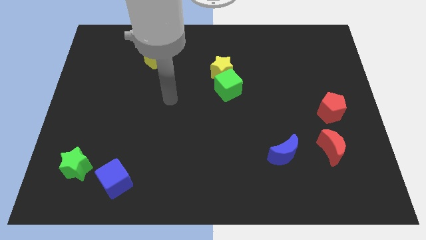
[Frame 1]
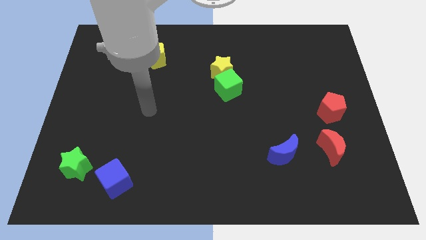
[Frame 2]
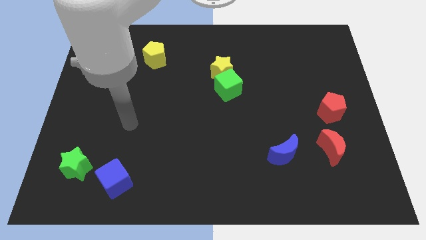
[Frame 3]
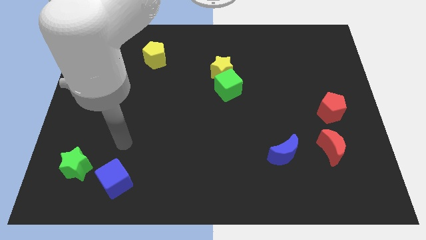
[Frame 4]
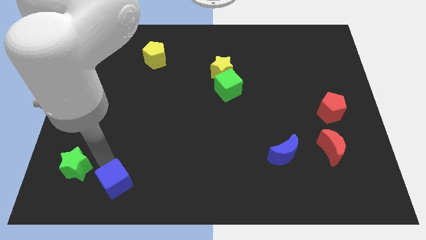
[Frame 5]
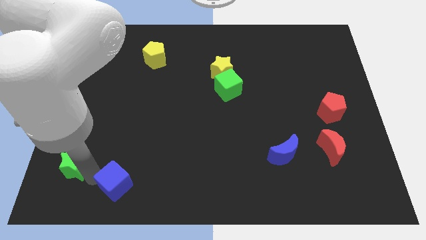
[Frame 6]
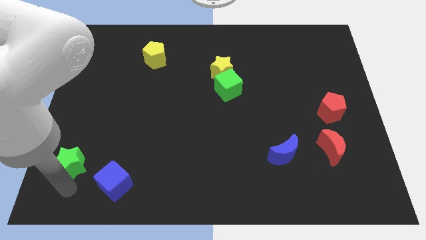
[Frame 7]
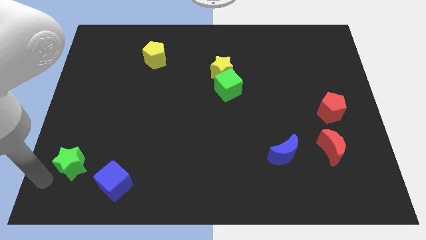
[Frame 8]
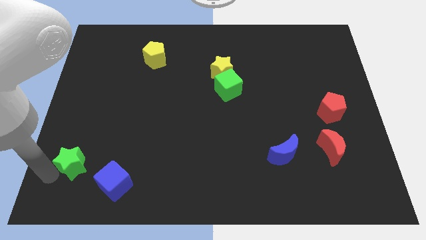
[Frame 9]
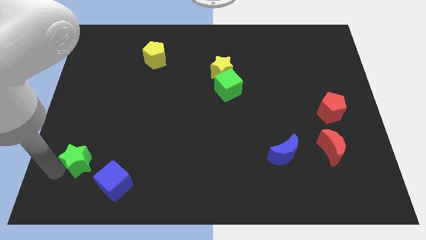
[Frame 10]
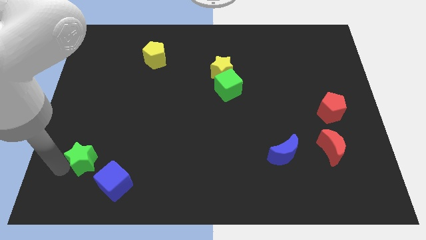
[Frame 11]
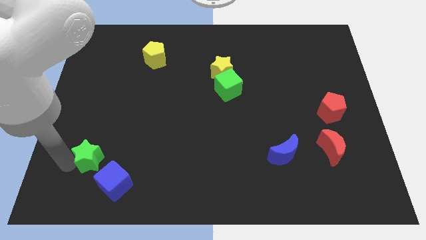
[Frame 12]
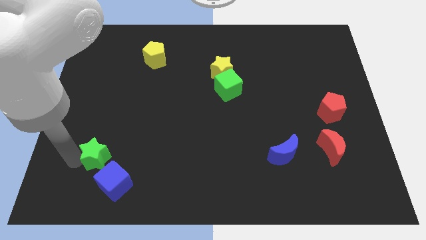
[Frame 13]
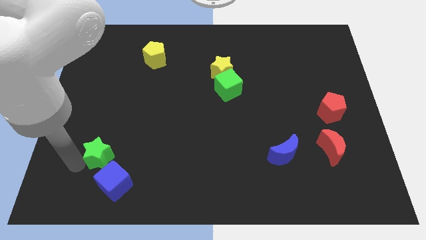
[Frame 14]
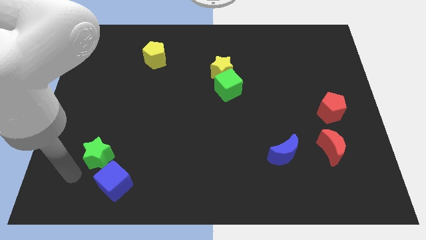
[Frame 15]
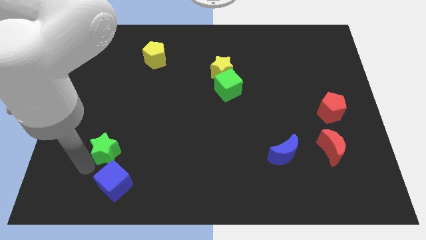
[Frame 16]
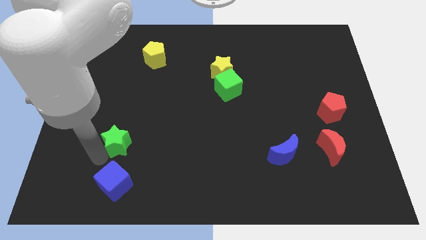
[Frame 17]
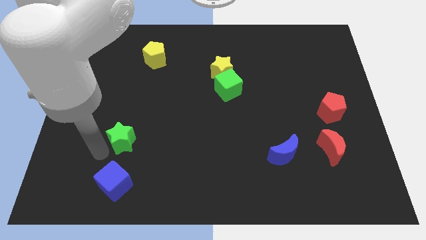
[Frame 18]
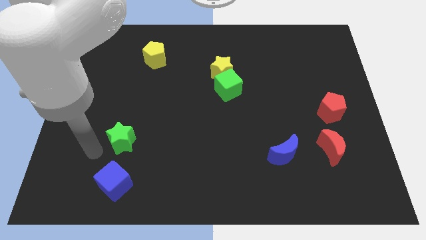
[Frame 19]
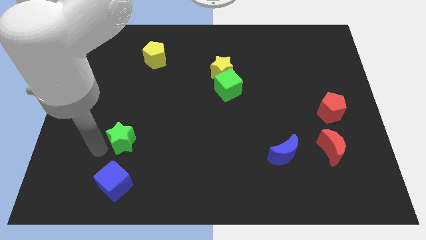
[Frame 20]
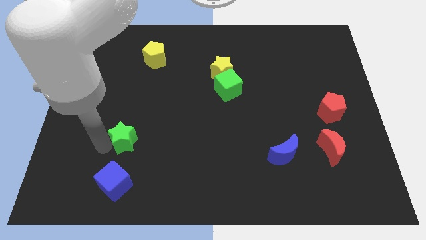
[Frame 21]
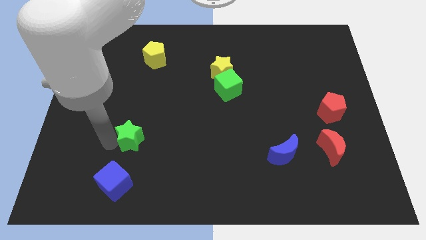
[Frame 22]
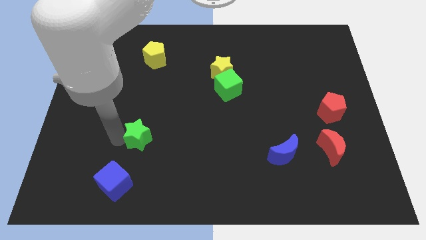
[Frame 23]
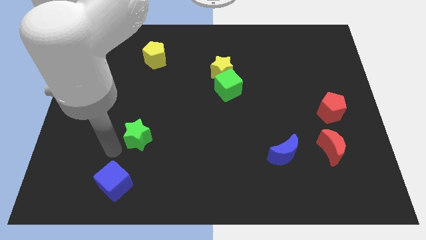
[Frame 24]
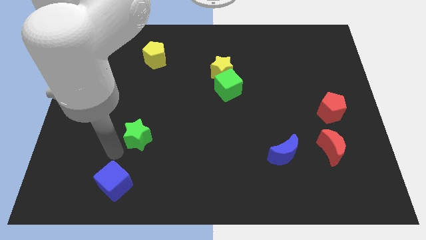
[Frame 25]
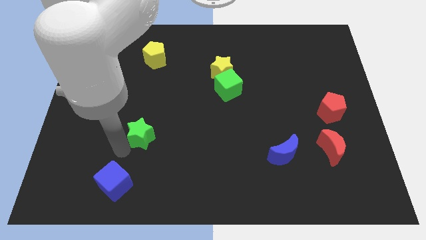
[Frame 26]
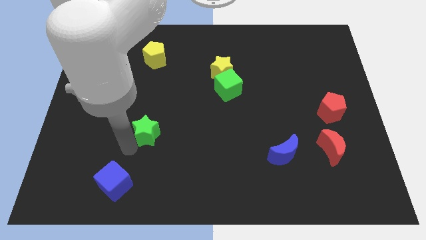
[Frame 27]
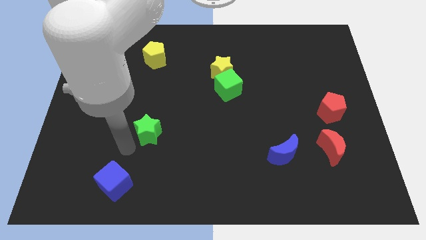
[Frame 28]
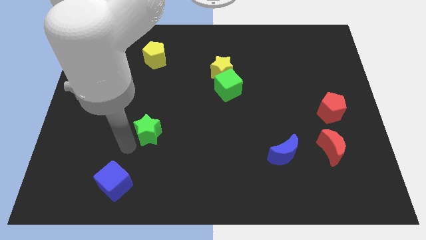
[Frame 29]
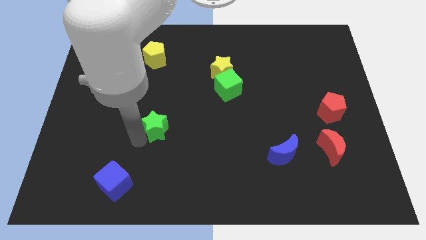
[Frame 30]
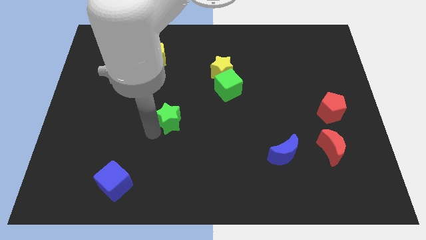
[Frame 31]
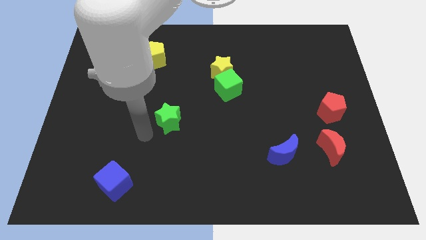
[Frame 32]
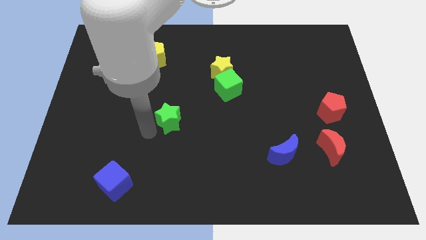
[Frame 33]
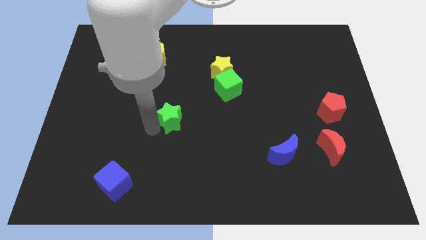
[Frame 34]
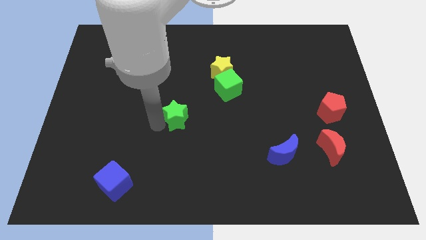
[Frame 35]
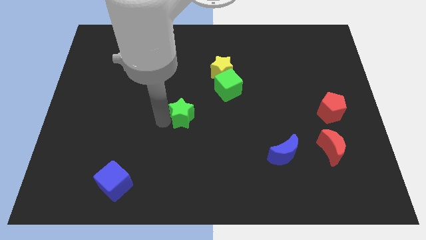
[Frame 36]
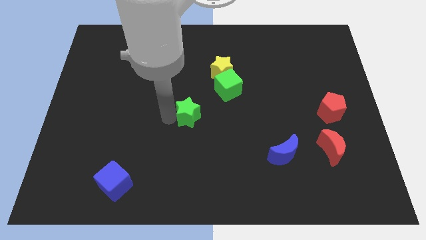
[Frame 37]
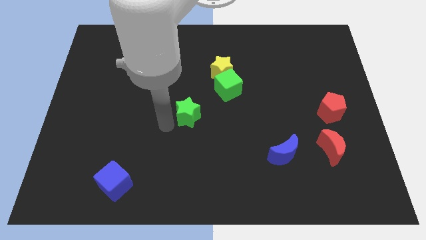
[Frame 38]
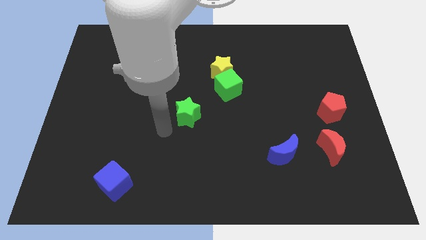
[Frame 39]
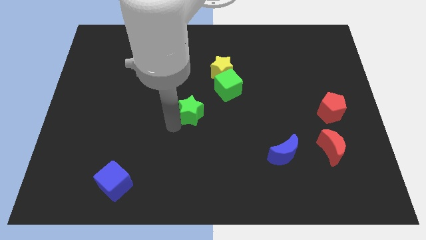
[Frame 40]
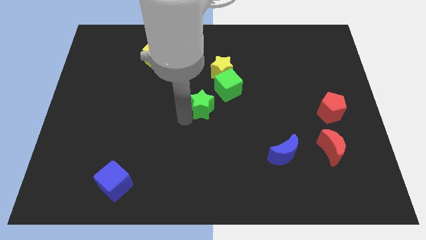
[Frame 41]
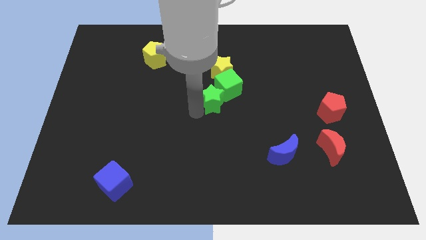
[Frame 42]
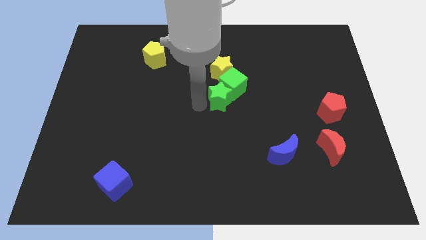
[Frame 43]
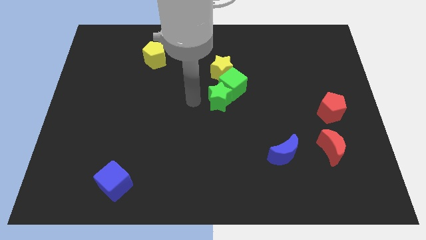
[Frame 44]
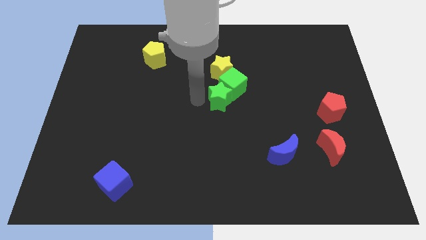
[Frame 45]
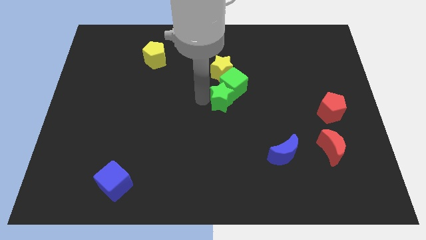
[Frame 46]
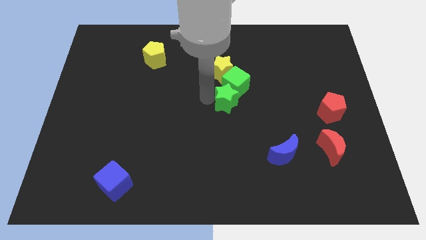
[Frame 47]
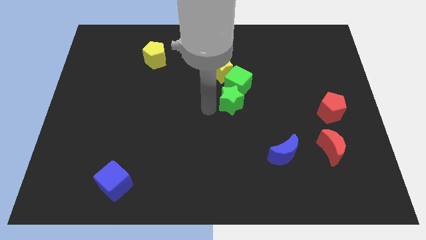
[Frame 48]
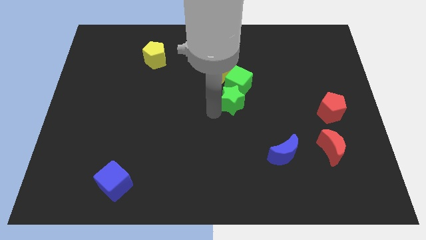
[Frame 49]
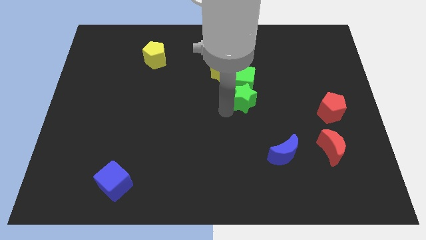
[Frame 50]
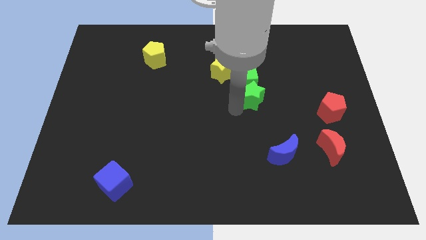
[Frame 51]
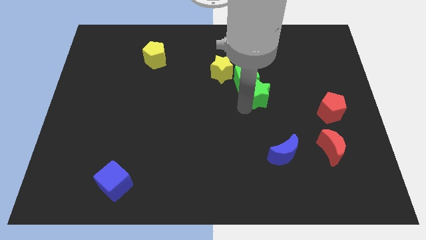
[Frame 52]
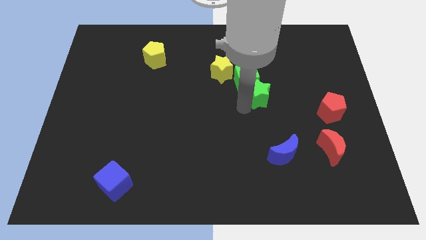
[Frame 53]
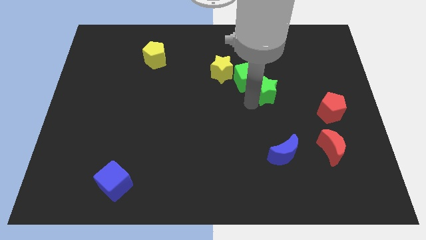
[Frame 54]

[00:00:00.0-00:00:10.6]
move the green star right of the green cube

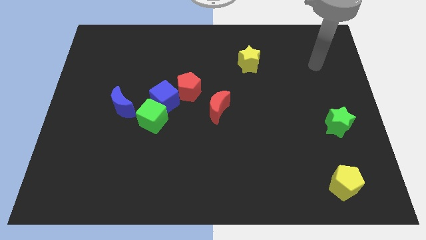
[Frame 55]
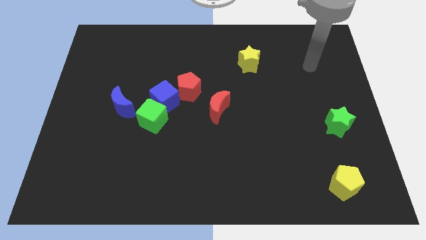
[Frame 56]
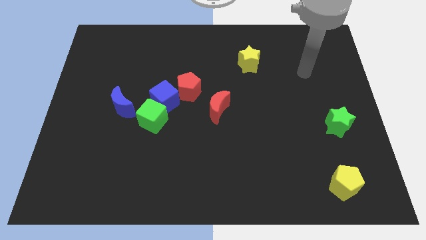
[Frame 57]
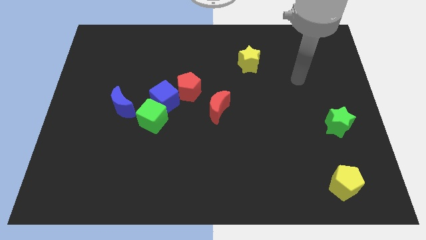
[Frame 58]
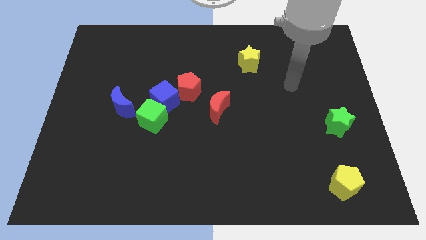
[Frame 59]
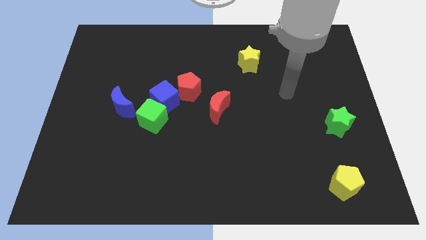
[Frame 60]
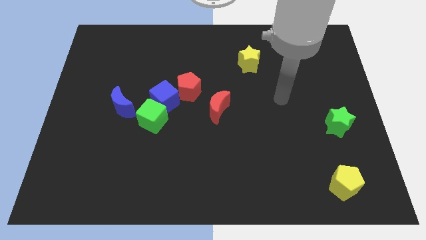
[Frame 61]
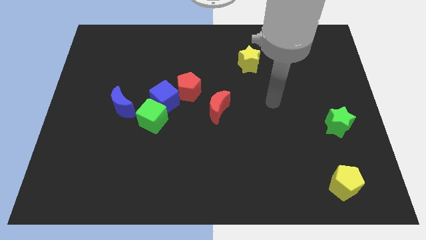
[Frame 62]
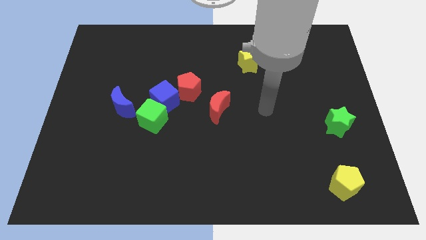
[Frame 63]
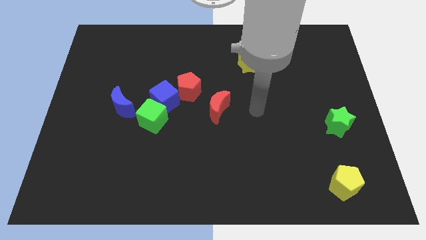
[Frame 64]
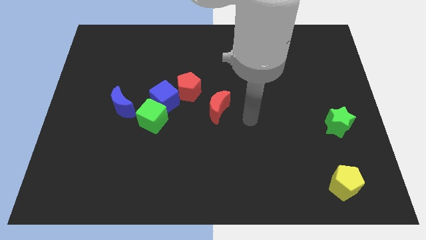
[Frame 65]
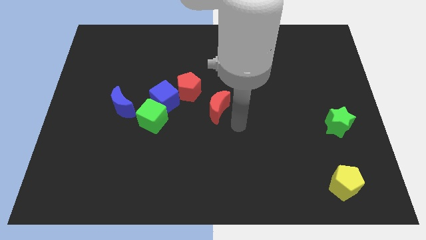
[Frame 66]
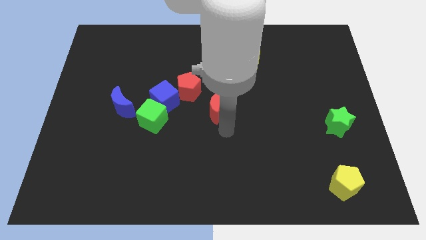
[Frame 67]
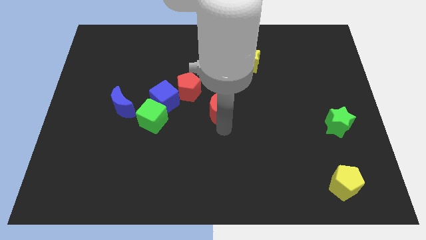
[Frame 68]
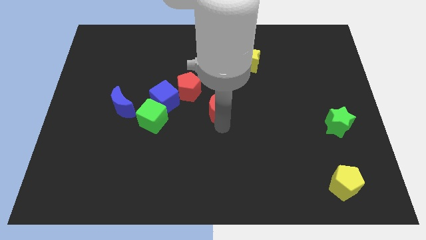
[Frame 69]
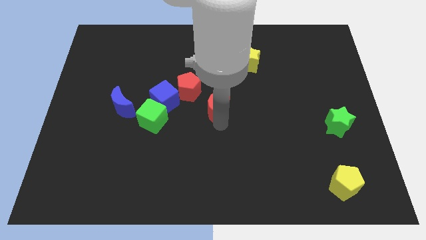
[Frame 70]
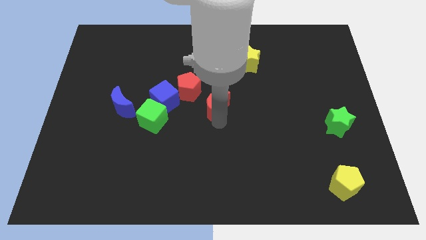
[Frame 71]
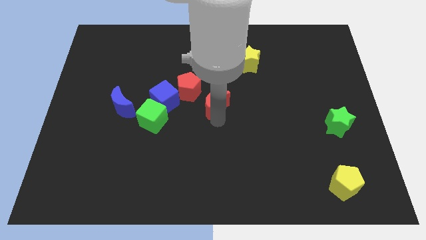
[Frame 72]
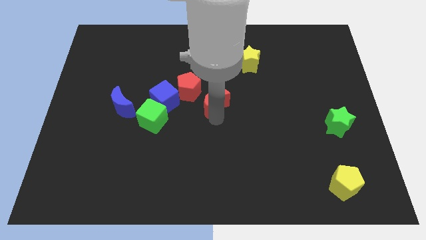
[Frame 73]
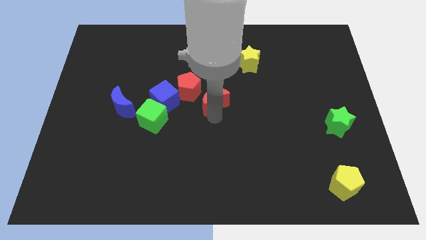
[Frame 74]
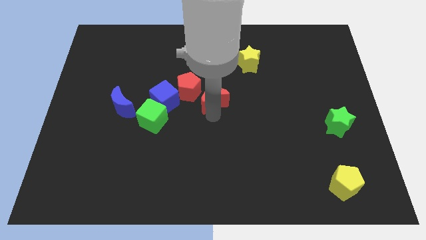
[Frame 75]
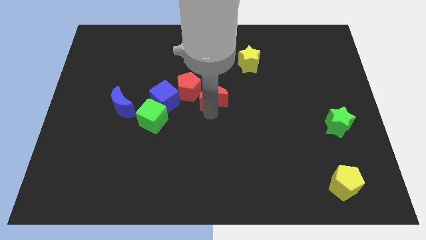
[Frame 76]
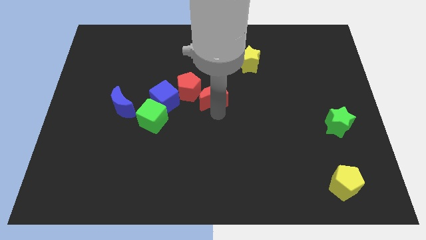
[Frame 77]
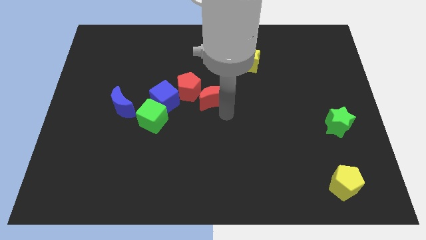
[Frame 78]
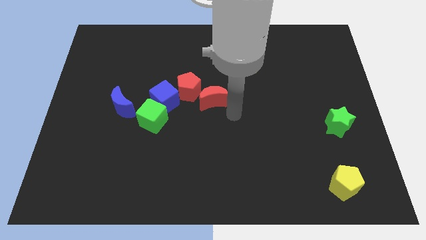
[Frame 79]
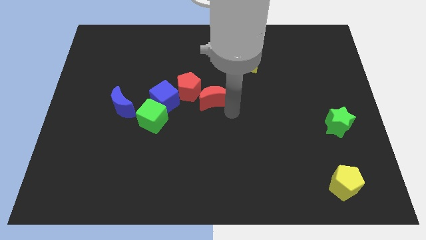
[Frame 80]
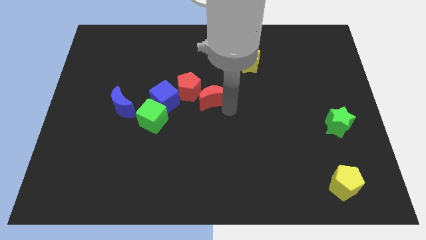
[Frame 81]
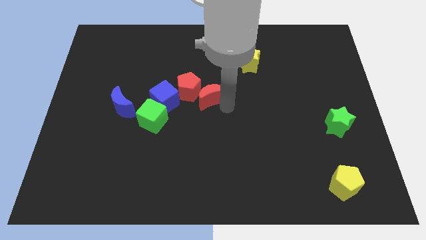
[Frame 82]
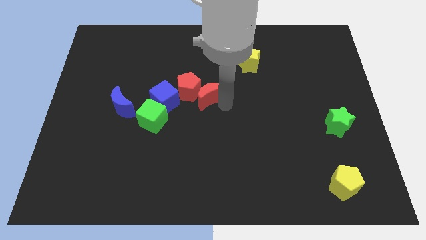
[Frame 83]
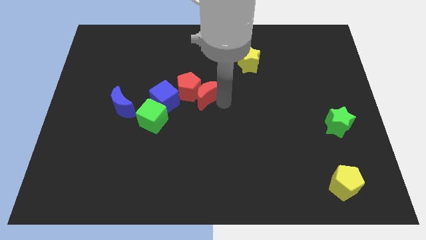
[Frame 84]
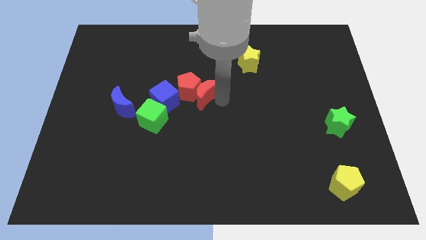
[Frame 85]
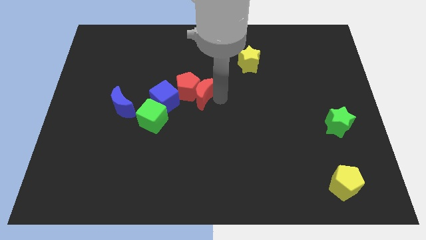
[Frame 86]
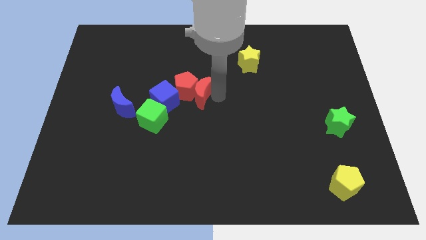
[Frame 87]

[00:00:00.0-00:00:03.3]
move the red moon diagonally up and to the right of the blue cube
